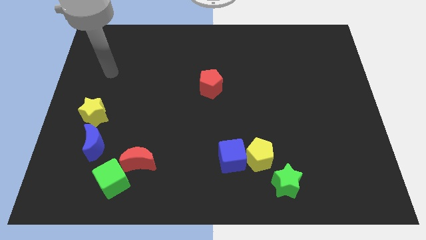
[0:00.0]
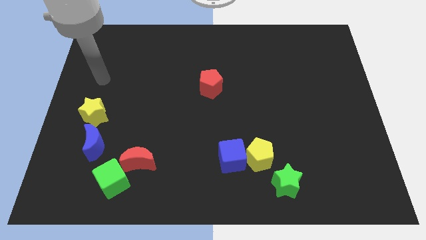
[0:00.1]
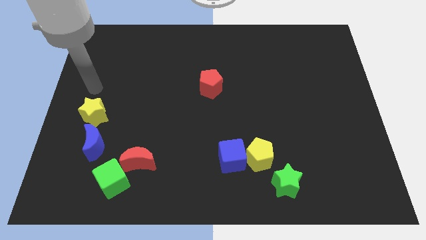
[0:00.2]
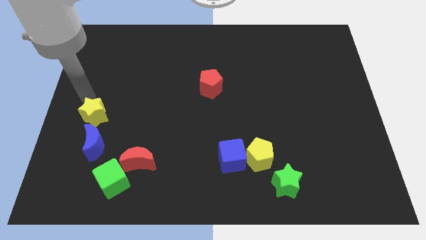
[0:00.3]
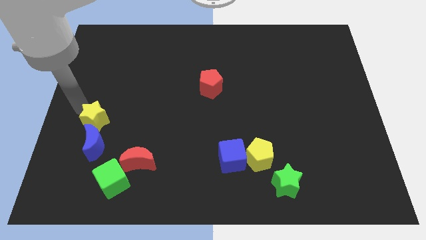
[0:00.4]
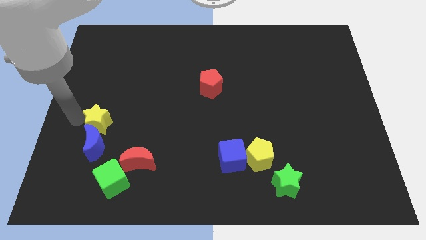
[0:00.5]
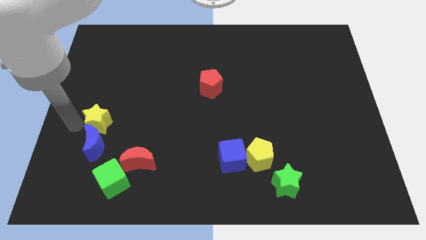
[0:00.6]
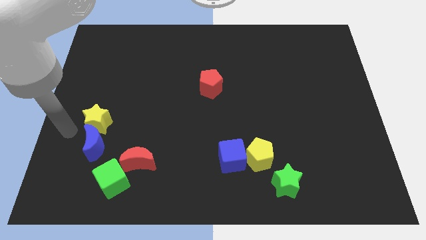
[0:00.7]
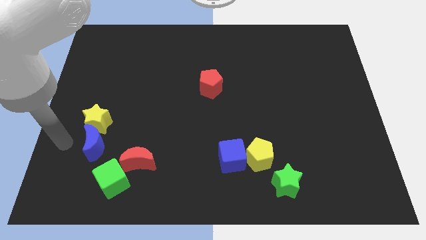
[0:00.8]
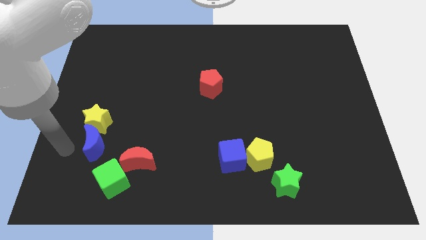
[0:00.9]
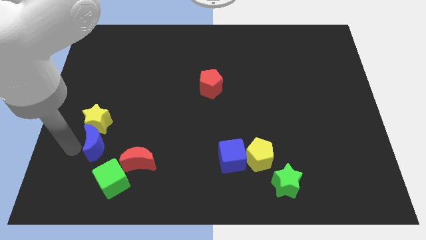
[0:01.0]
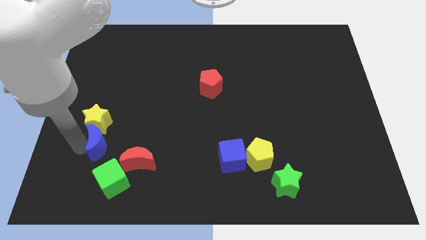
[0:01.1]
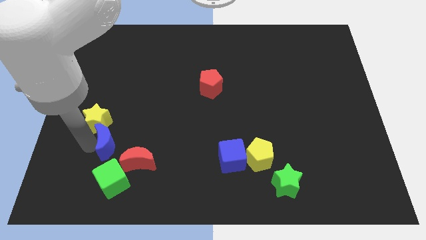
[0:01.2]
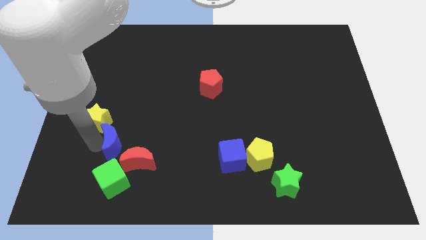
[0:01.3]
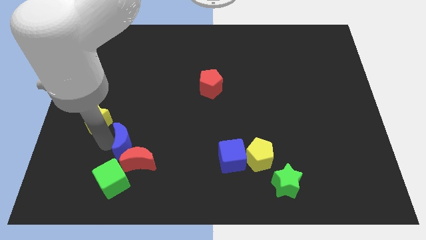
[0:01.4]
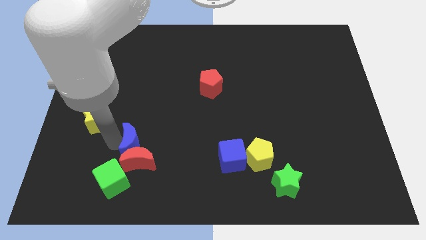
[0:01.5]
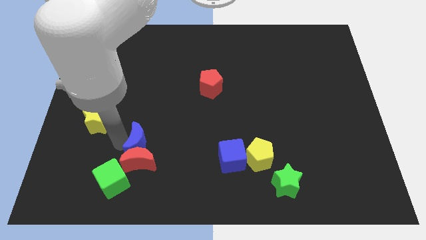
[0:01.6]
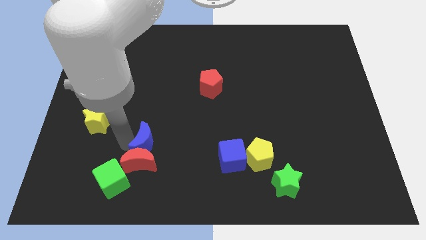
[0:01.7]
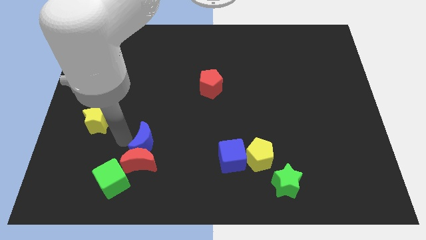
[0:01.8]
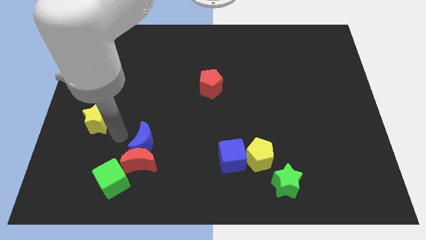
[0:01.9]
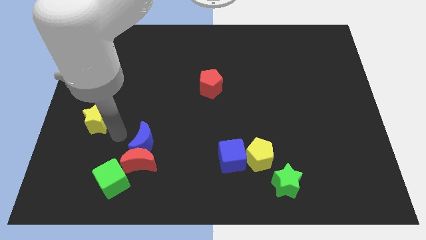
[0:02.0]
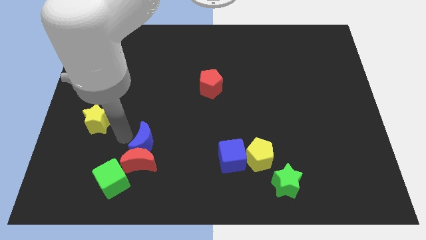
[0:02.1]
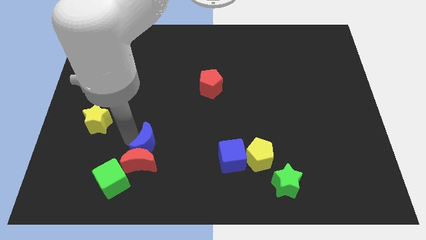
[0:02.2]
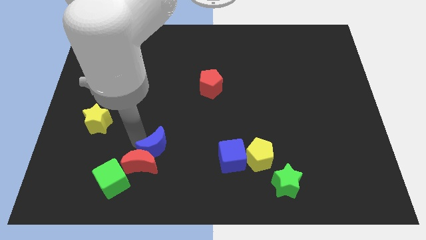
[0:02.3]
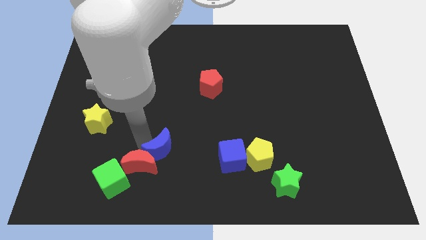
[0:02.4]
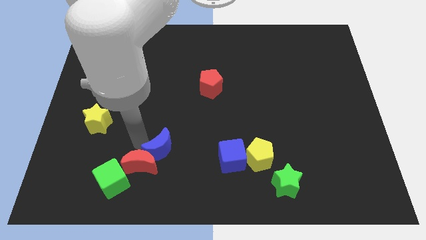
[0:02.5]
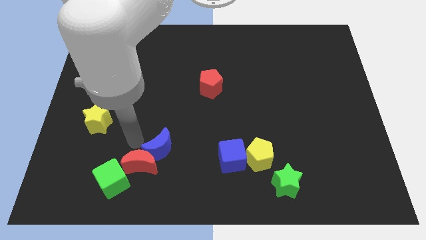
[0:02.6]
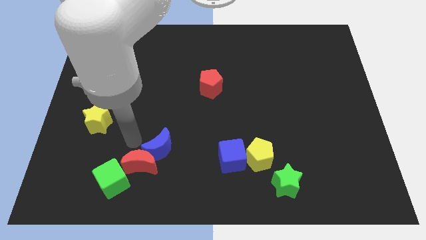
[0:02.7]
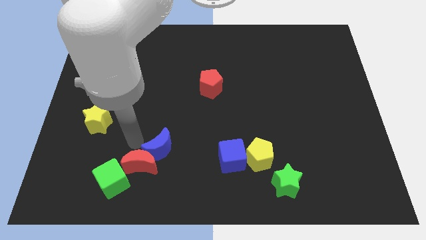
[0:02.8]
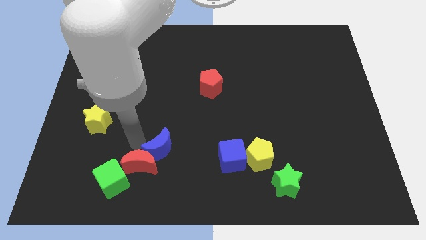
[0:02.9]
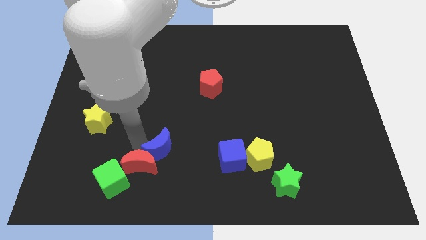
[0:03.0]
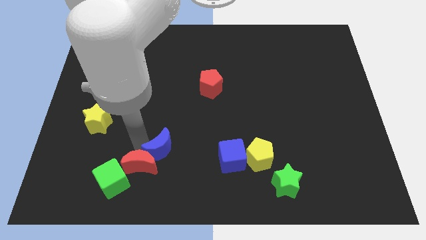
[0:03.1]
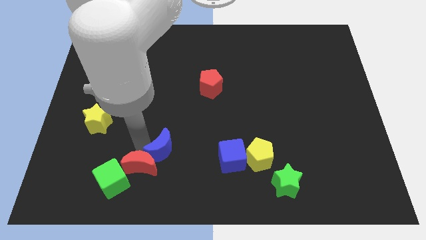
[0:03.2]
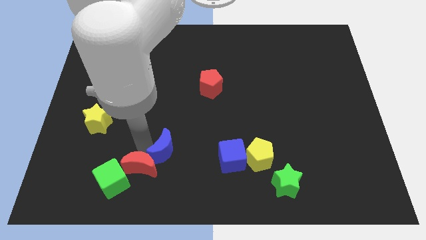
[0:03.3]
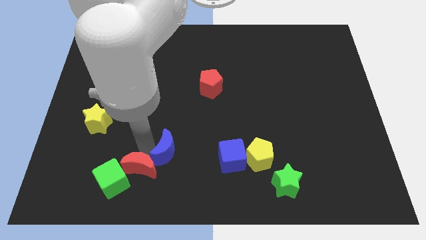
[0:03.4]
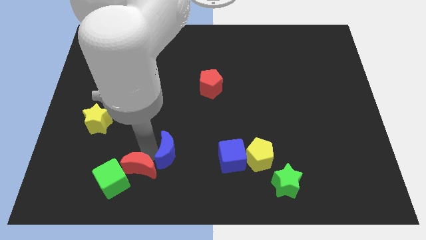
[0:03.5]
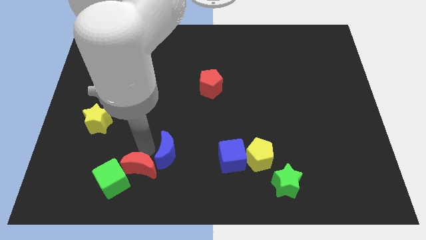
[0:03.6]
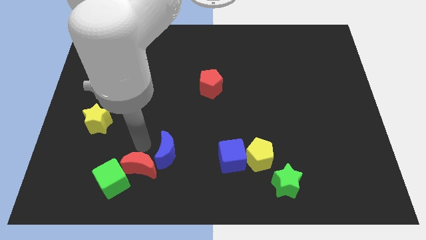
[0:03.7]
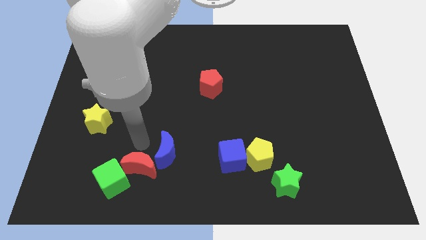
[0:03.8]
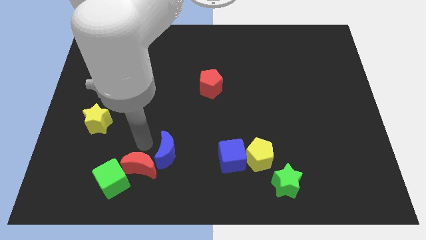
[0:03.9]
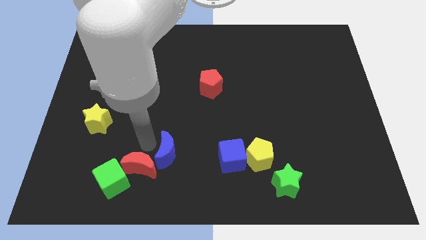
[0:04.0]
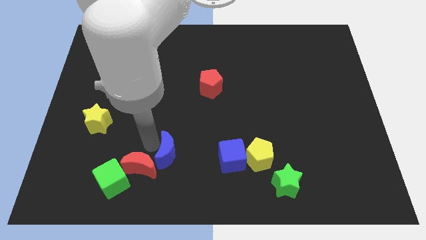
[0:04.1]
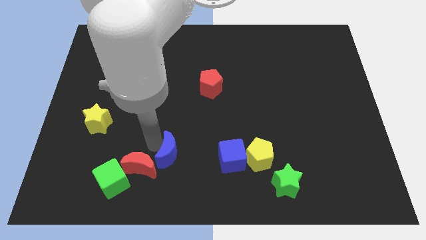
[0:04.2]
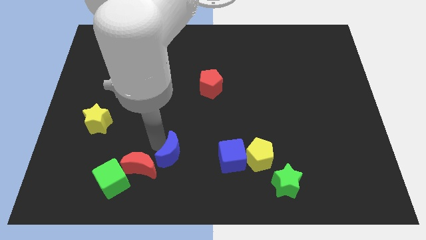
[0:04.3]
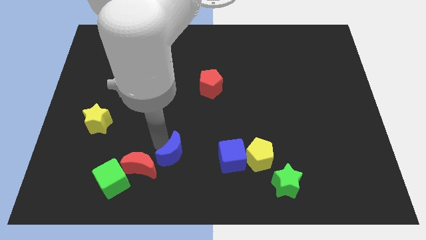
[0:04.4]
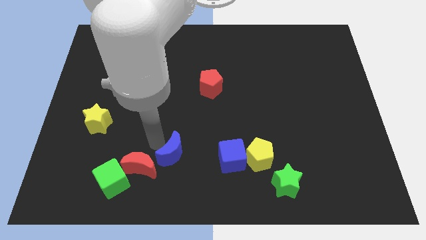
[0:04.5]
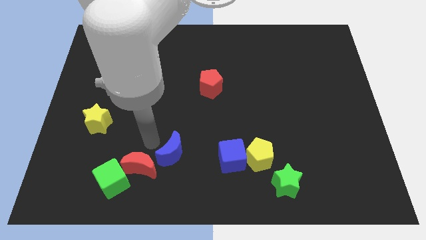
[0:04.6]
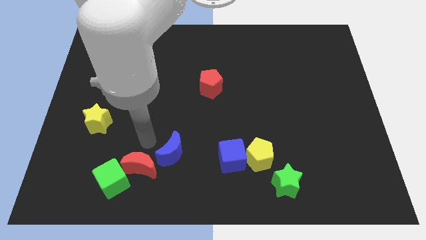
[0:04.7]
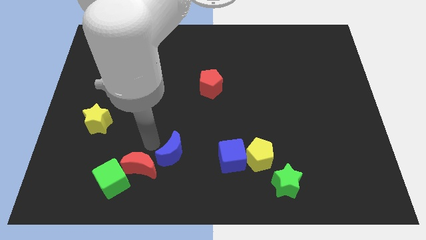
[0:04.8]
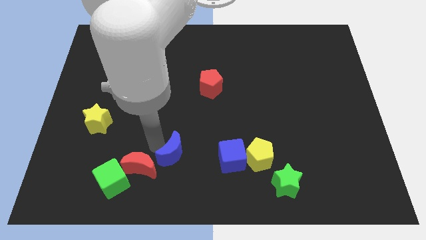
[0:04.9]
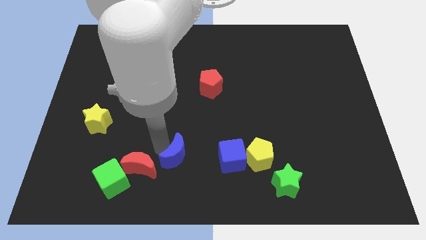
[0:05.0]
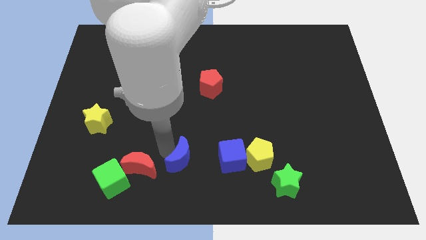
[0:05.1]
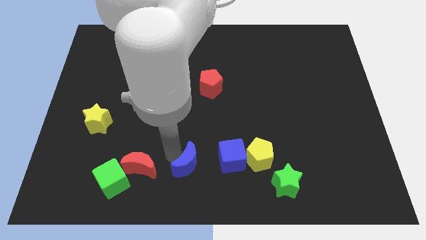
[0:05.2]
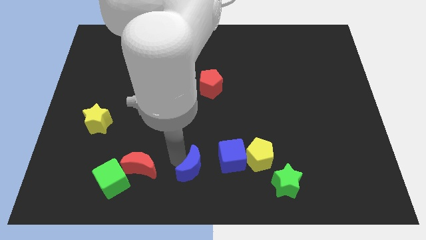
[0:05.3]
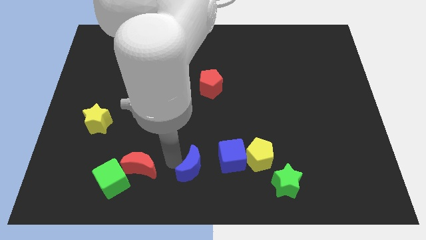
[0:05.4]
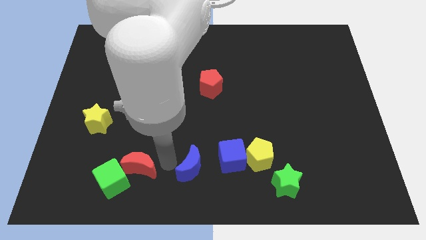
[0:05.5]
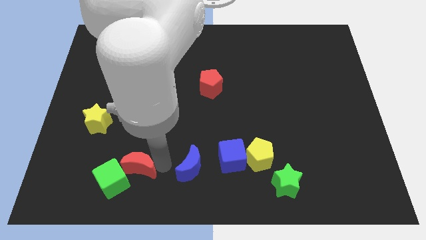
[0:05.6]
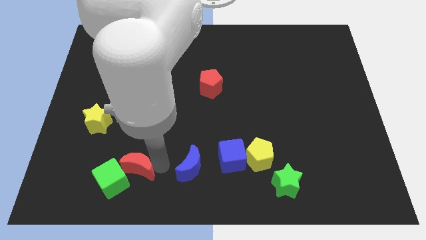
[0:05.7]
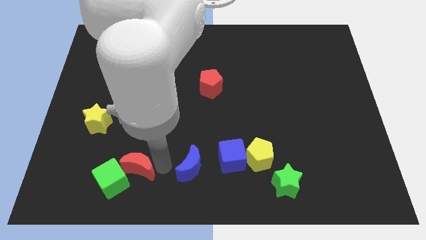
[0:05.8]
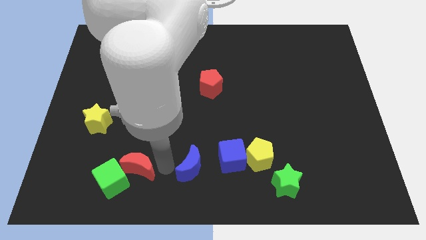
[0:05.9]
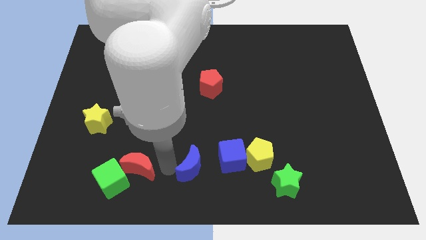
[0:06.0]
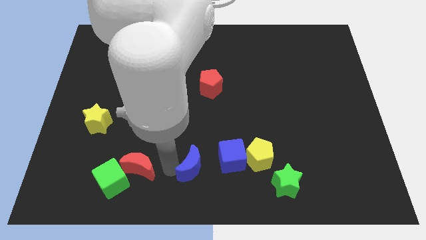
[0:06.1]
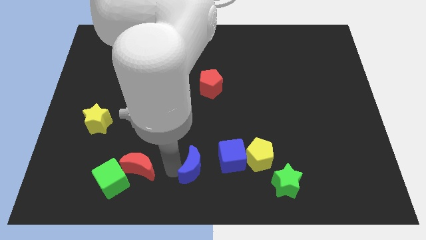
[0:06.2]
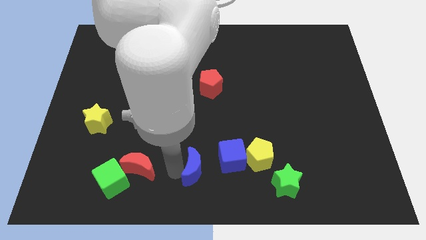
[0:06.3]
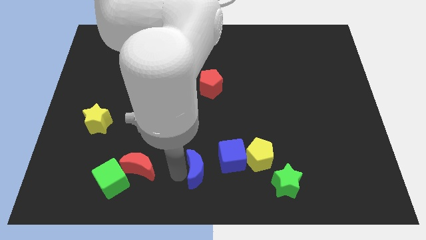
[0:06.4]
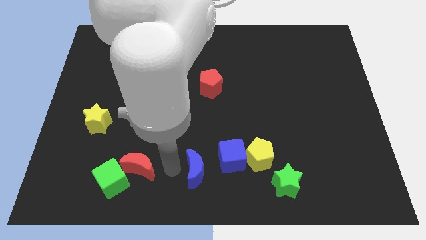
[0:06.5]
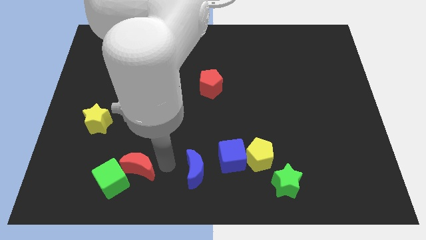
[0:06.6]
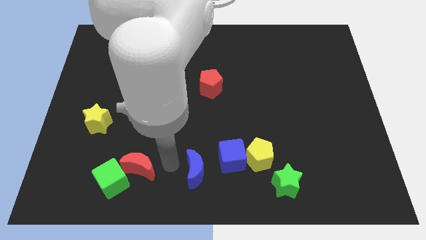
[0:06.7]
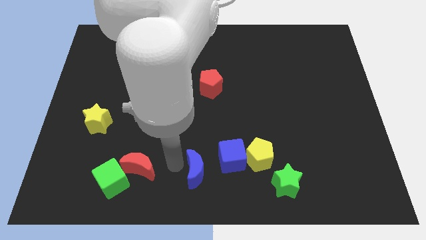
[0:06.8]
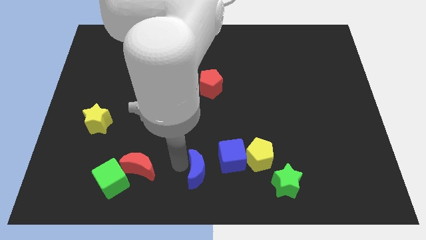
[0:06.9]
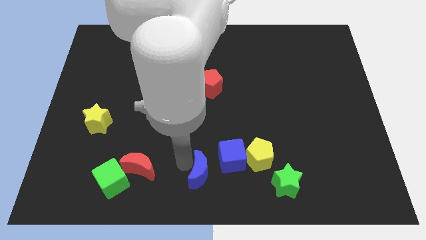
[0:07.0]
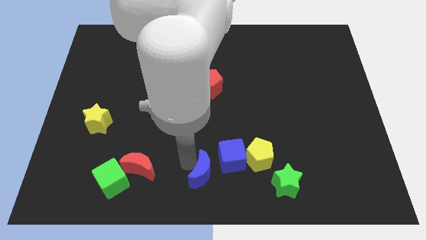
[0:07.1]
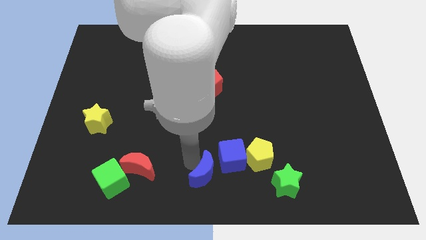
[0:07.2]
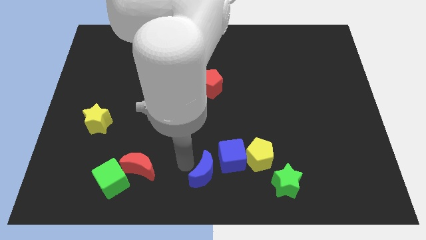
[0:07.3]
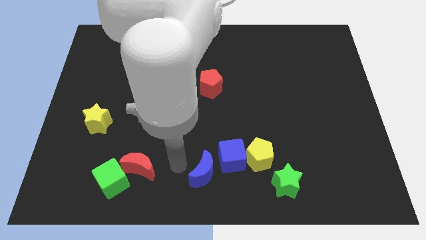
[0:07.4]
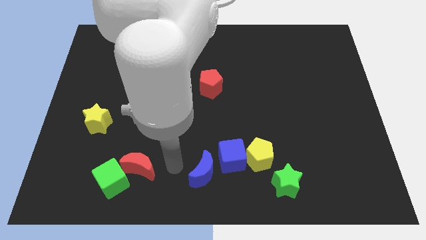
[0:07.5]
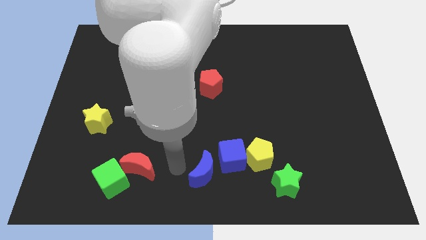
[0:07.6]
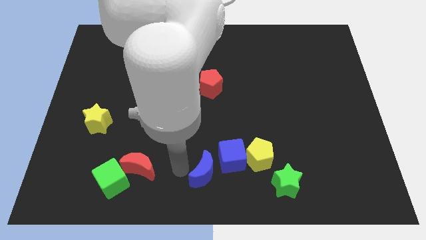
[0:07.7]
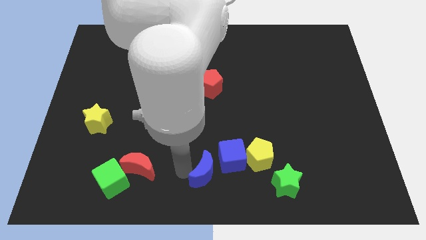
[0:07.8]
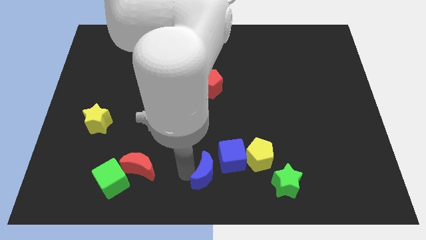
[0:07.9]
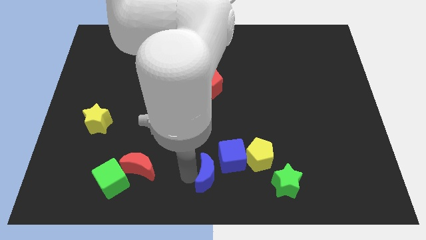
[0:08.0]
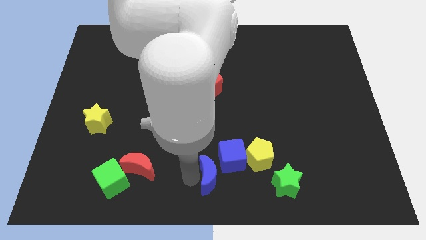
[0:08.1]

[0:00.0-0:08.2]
move the blue moon to the bottom left of the yellow pentagon
